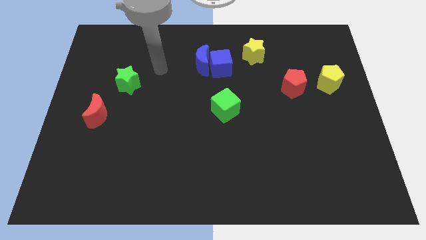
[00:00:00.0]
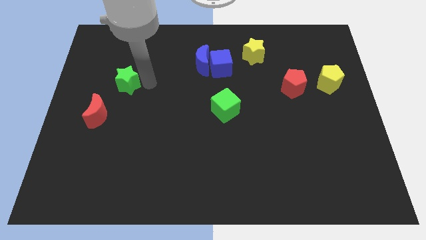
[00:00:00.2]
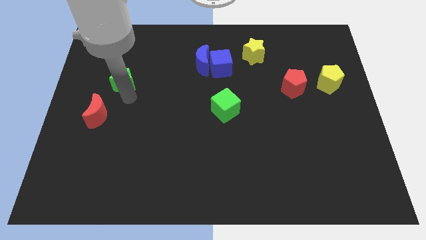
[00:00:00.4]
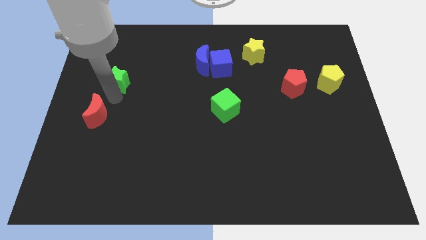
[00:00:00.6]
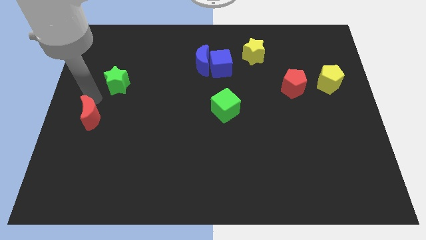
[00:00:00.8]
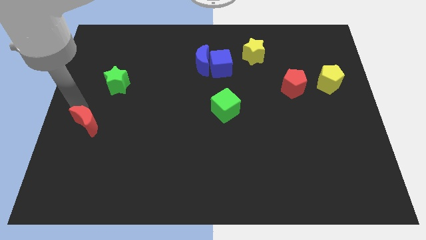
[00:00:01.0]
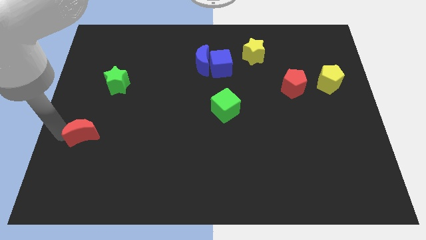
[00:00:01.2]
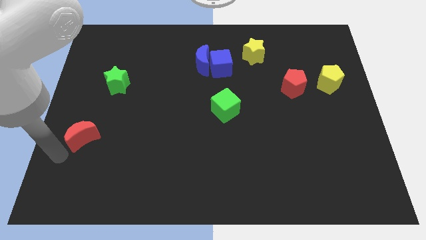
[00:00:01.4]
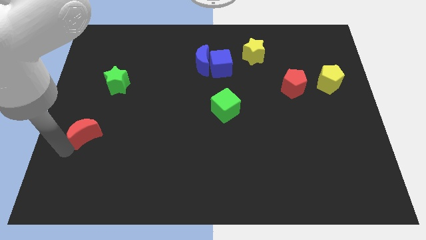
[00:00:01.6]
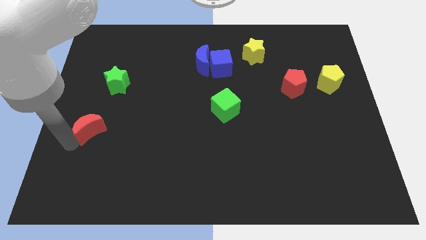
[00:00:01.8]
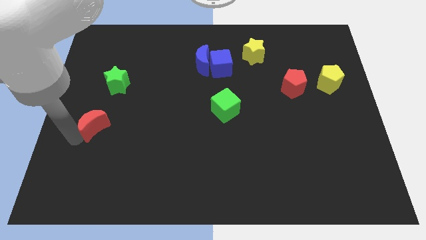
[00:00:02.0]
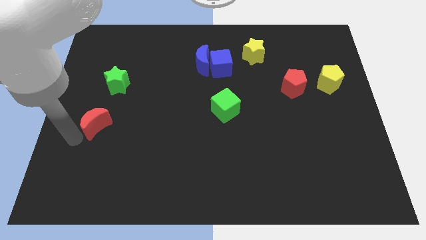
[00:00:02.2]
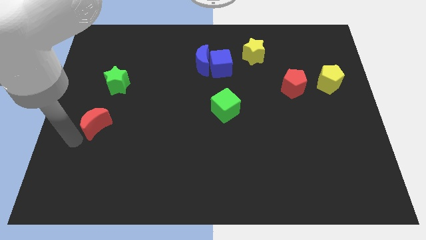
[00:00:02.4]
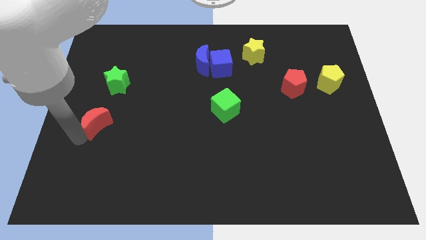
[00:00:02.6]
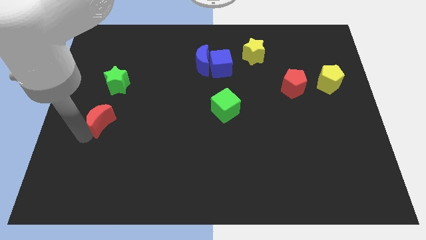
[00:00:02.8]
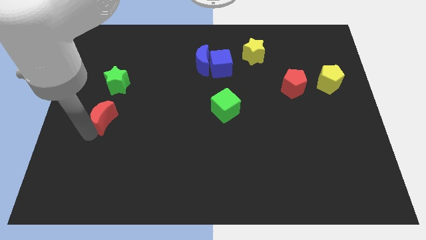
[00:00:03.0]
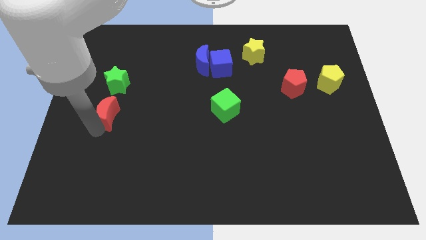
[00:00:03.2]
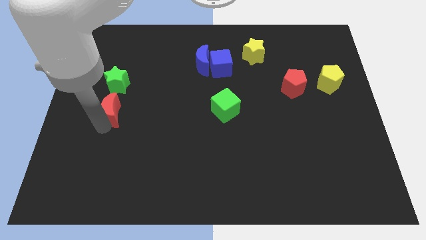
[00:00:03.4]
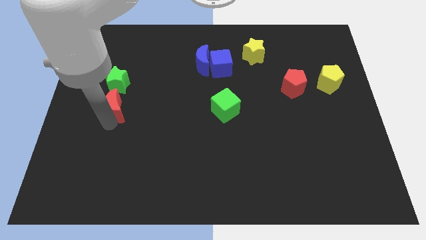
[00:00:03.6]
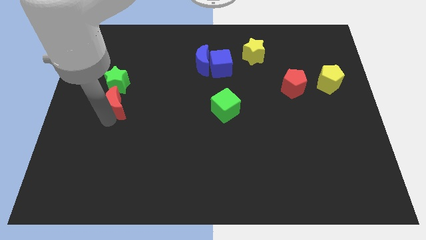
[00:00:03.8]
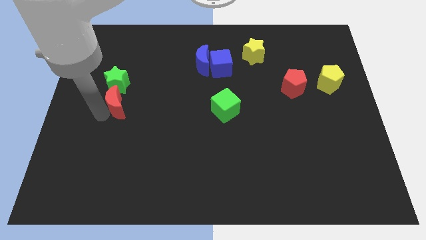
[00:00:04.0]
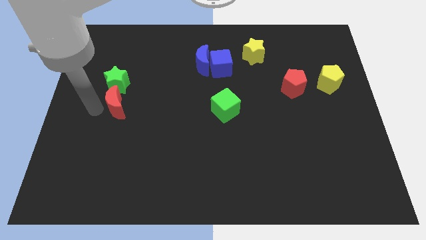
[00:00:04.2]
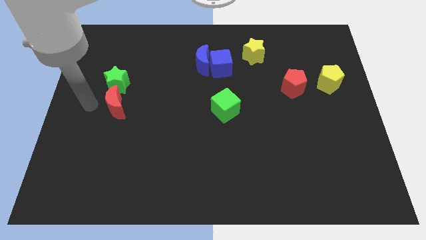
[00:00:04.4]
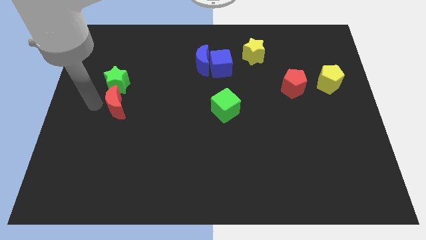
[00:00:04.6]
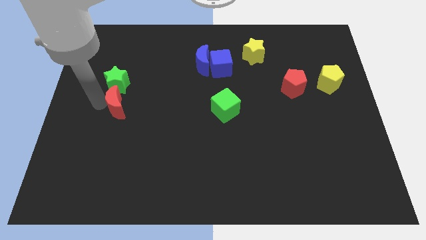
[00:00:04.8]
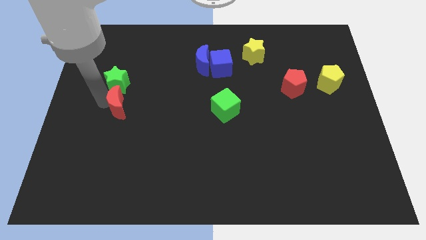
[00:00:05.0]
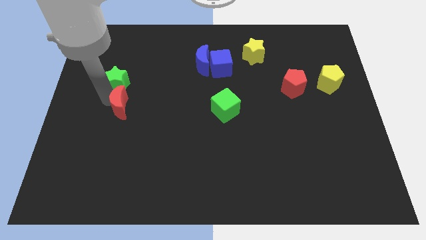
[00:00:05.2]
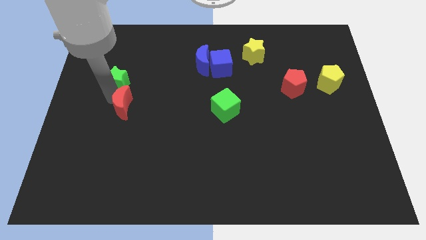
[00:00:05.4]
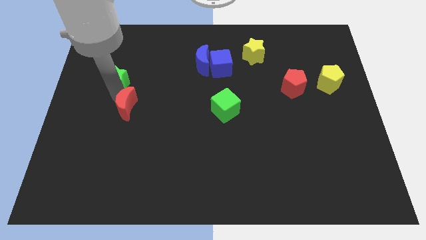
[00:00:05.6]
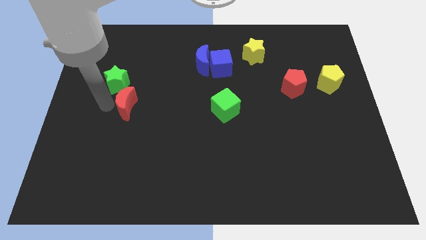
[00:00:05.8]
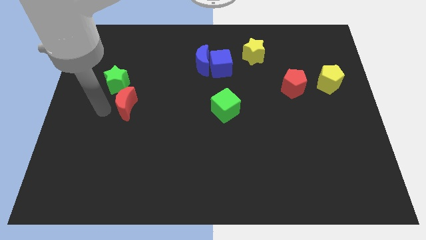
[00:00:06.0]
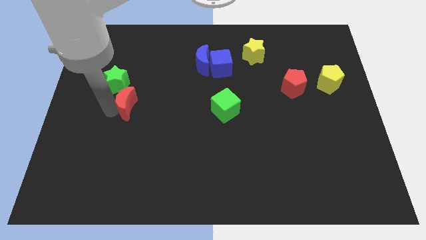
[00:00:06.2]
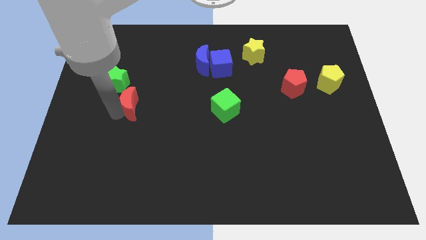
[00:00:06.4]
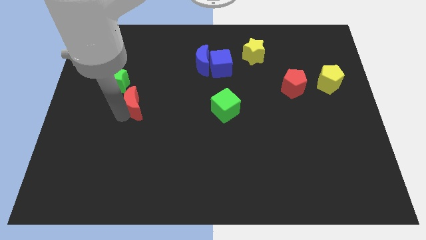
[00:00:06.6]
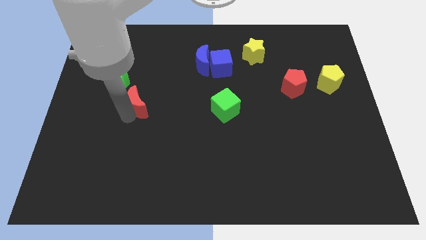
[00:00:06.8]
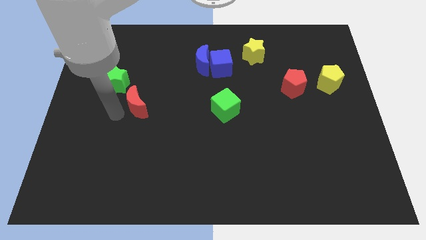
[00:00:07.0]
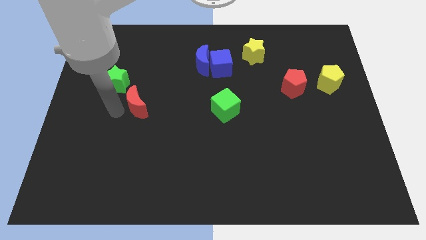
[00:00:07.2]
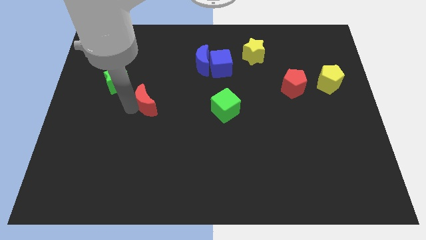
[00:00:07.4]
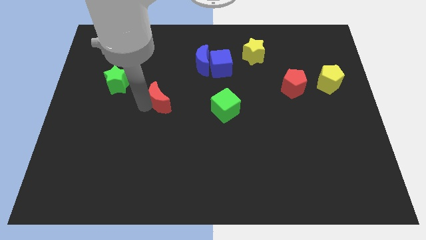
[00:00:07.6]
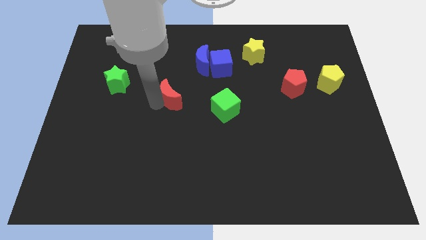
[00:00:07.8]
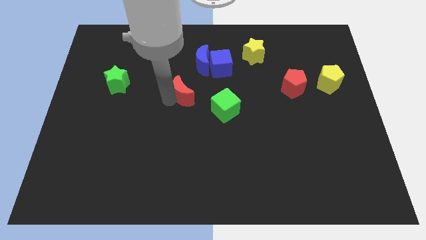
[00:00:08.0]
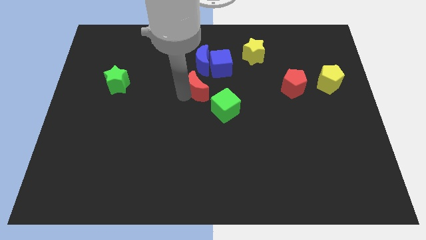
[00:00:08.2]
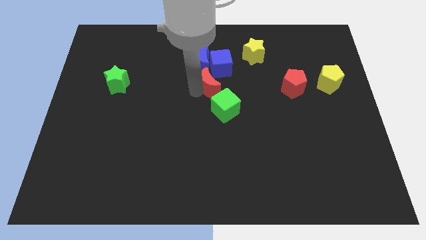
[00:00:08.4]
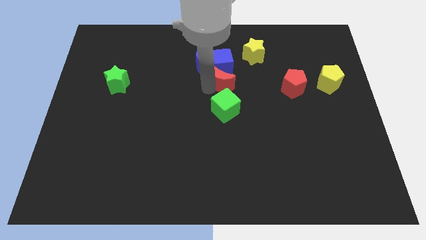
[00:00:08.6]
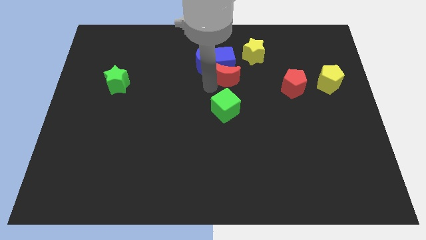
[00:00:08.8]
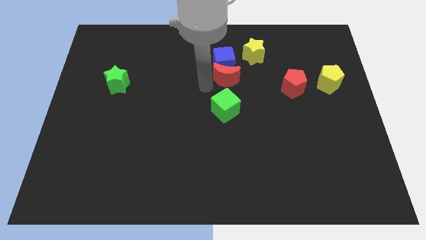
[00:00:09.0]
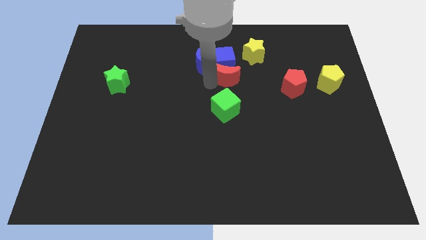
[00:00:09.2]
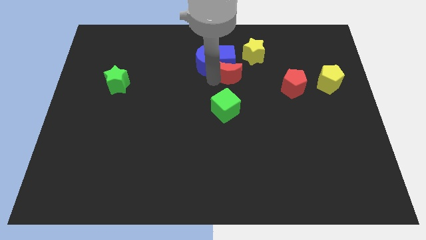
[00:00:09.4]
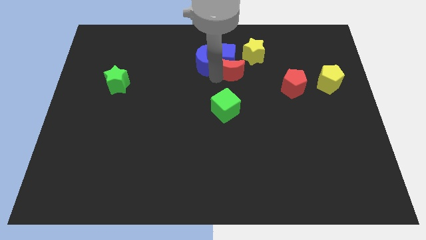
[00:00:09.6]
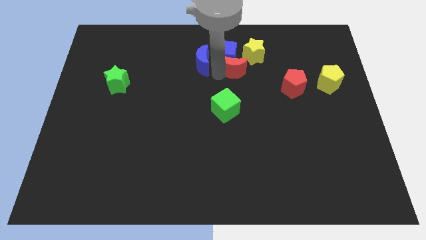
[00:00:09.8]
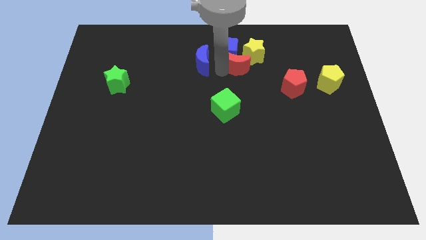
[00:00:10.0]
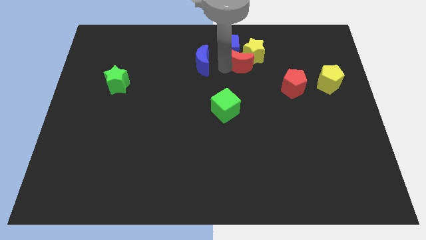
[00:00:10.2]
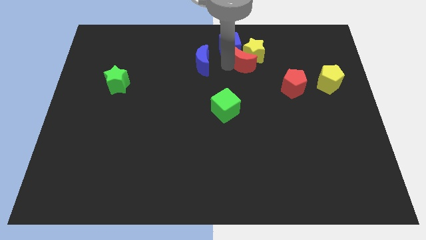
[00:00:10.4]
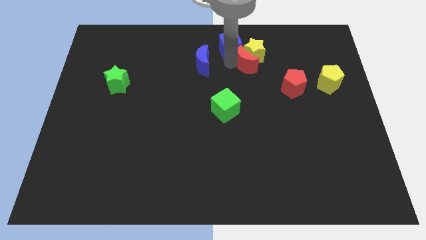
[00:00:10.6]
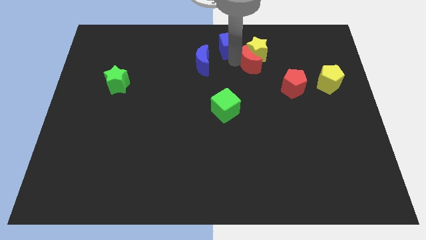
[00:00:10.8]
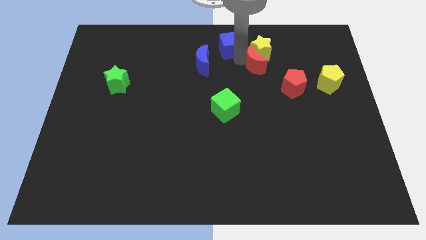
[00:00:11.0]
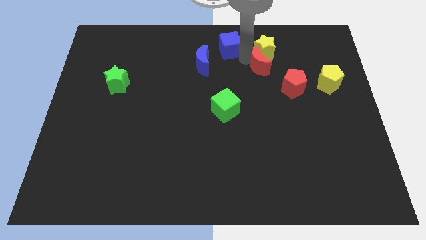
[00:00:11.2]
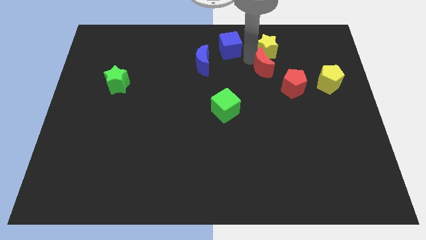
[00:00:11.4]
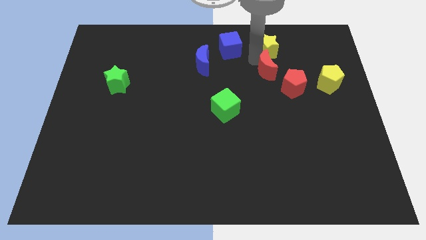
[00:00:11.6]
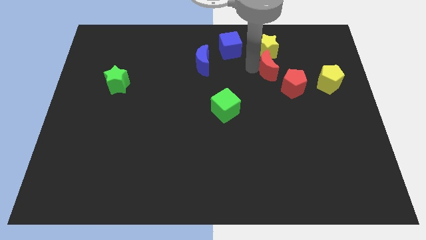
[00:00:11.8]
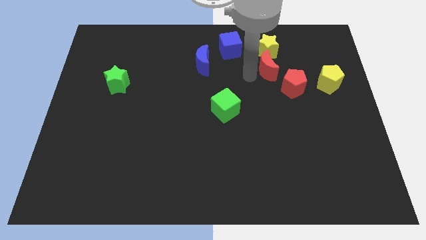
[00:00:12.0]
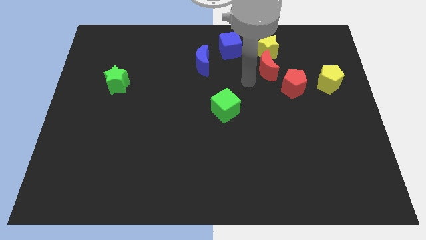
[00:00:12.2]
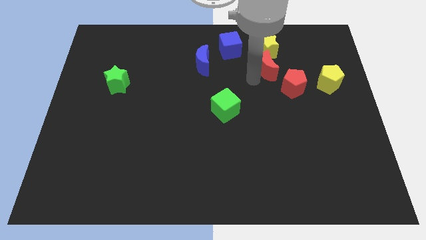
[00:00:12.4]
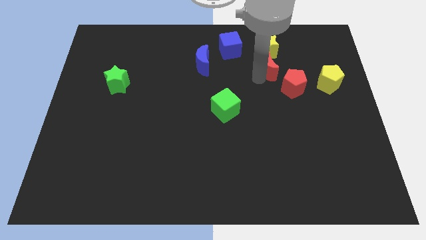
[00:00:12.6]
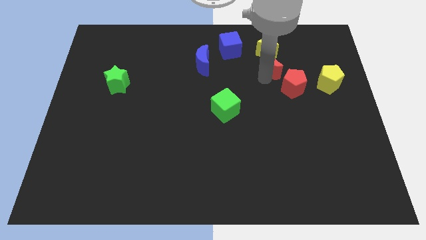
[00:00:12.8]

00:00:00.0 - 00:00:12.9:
push the red moon to the top side of the red pentagon

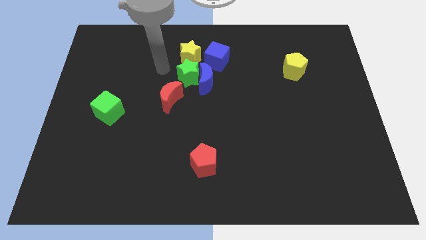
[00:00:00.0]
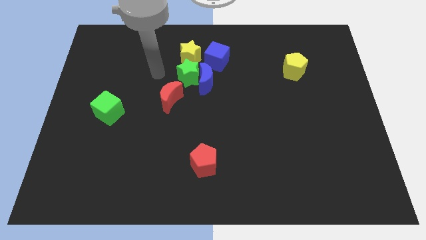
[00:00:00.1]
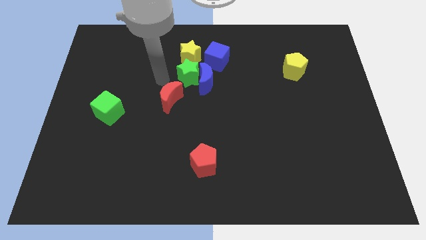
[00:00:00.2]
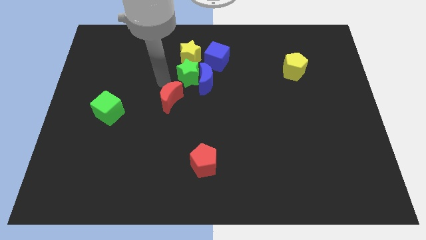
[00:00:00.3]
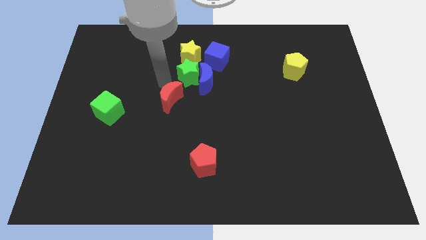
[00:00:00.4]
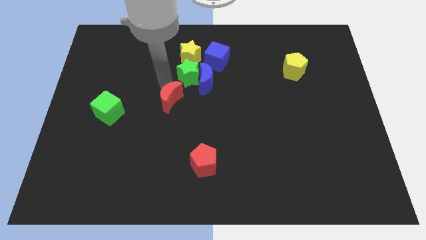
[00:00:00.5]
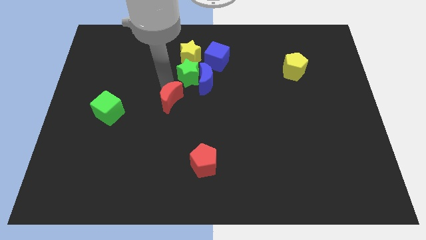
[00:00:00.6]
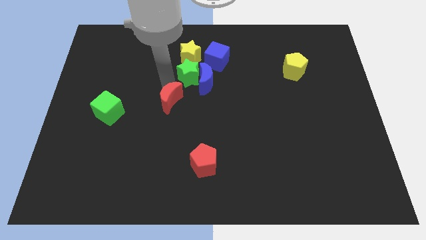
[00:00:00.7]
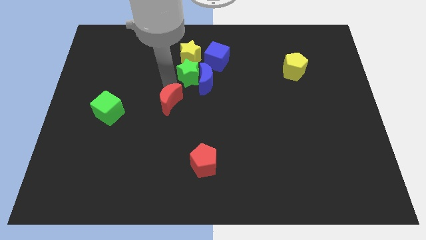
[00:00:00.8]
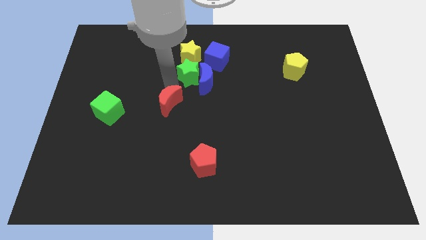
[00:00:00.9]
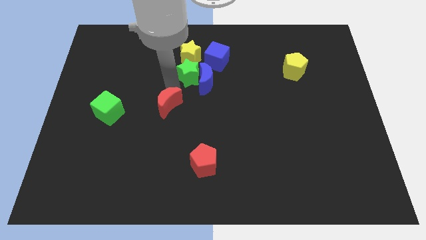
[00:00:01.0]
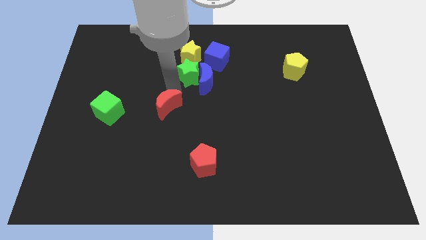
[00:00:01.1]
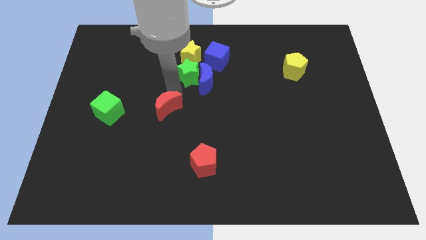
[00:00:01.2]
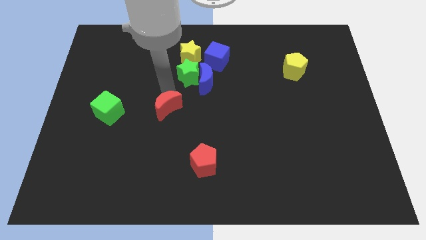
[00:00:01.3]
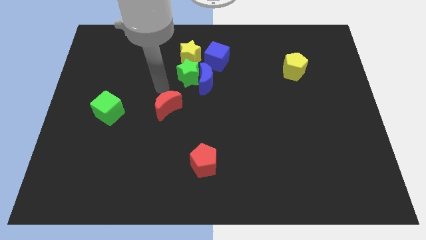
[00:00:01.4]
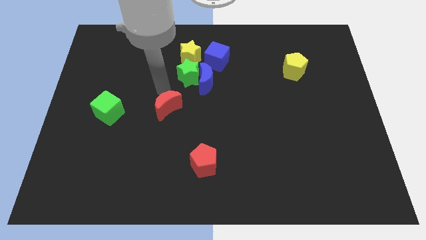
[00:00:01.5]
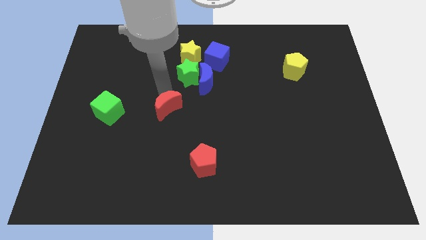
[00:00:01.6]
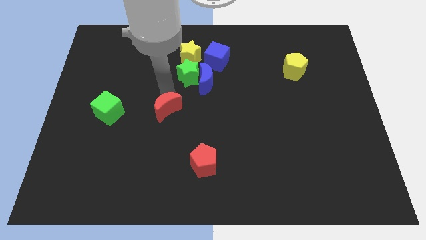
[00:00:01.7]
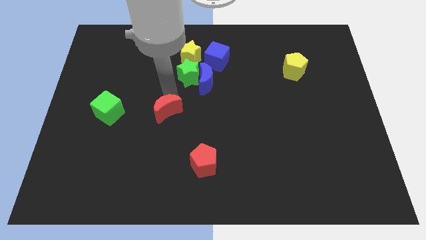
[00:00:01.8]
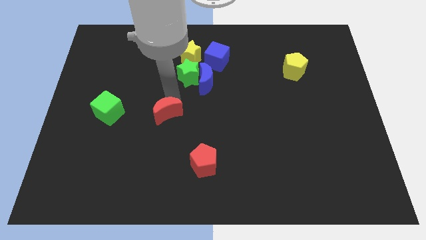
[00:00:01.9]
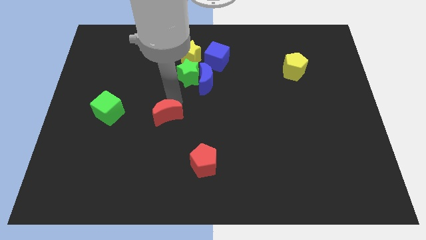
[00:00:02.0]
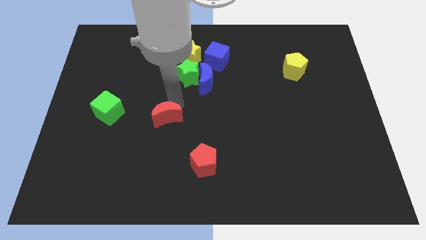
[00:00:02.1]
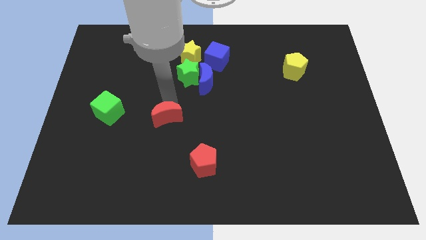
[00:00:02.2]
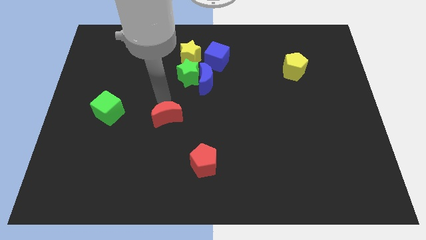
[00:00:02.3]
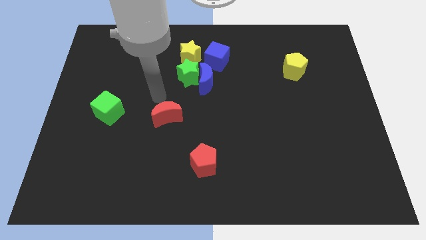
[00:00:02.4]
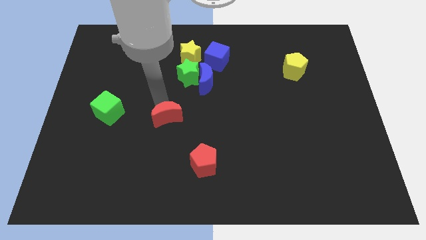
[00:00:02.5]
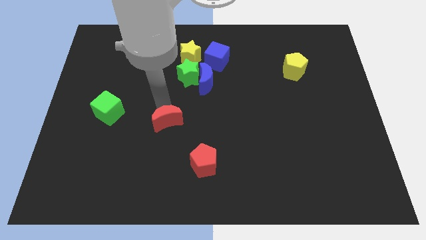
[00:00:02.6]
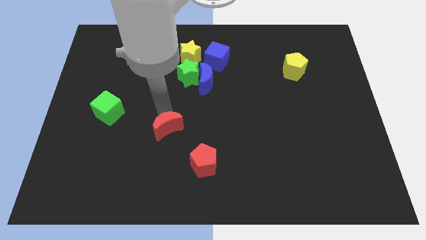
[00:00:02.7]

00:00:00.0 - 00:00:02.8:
slide the red moon diagonally up and to the left of the red pentagon
